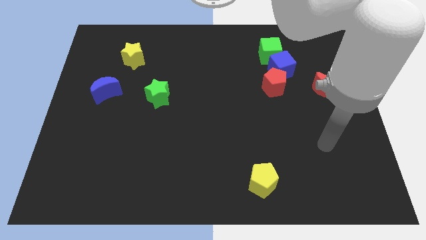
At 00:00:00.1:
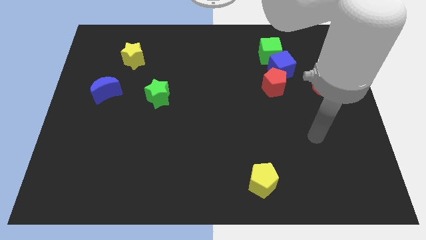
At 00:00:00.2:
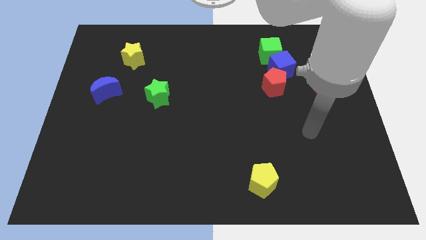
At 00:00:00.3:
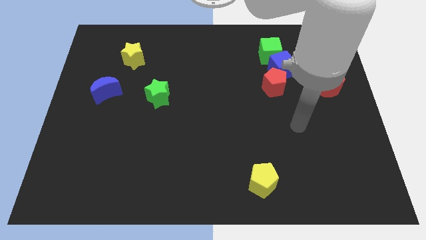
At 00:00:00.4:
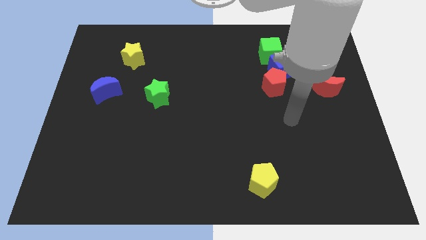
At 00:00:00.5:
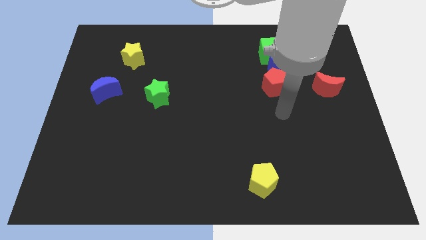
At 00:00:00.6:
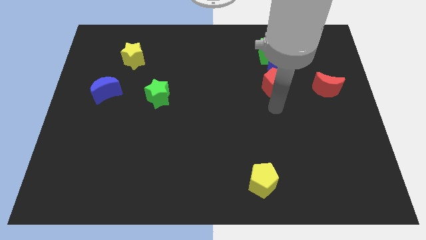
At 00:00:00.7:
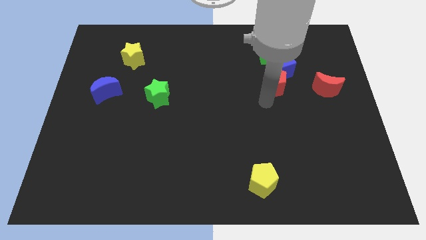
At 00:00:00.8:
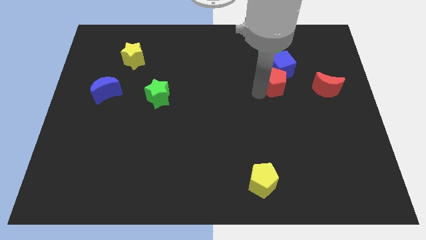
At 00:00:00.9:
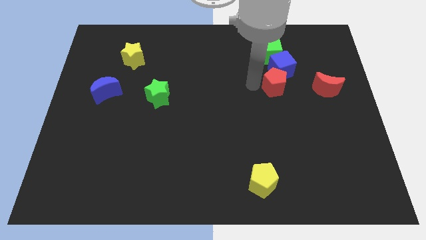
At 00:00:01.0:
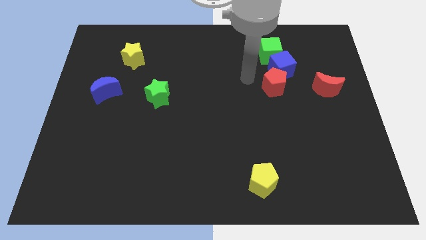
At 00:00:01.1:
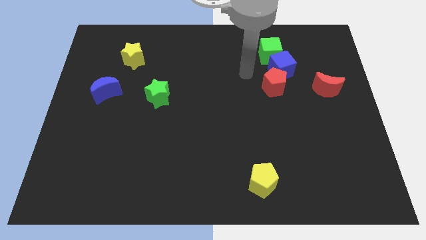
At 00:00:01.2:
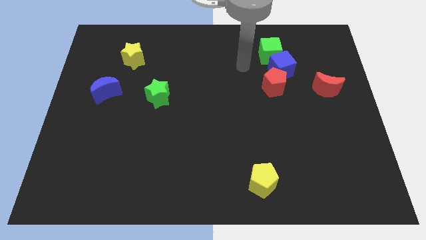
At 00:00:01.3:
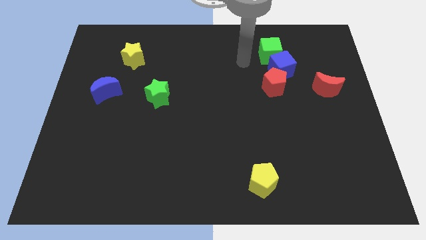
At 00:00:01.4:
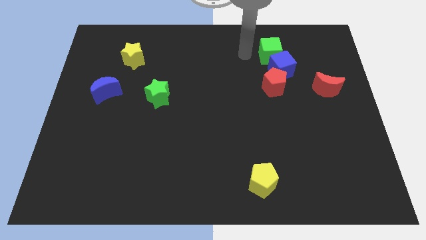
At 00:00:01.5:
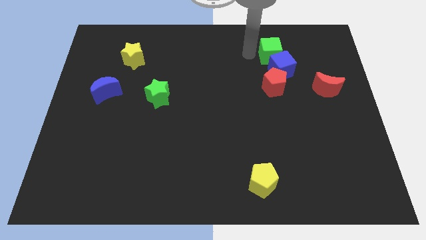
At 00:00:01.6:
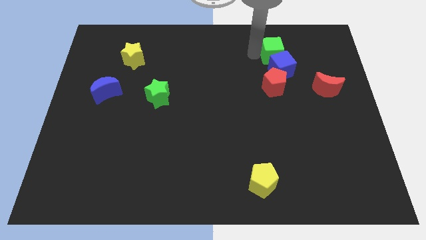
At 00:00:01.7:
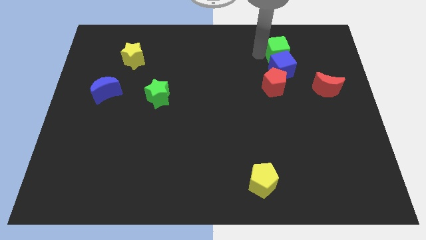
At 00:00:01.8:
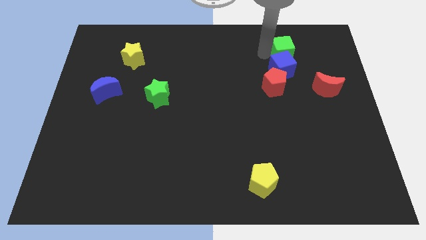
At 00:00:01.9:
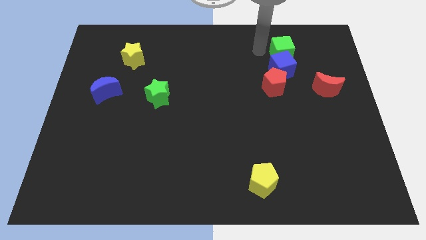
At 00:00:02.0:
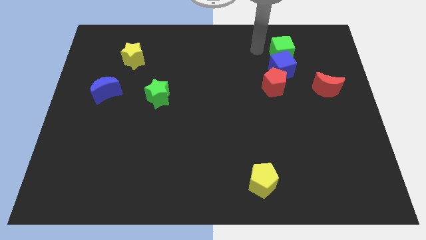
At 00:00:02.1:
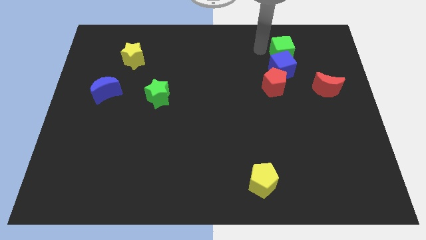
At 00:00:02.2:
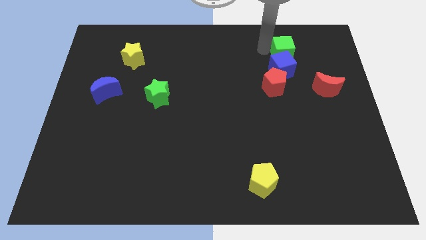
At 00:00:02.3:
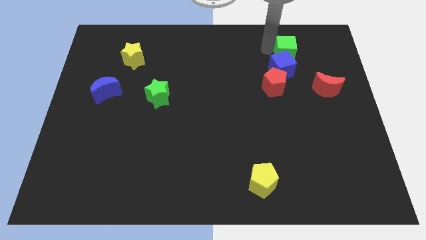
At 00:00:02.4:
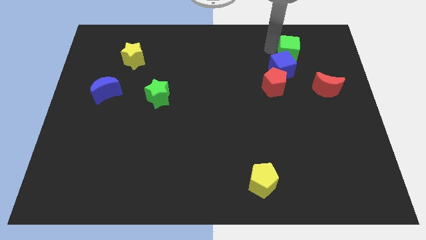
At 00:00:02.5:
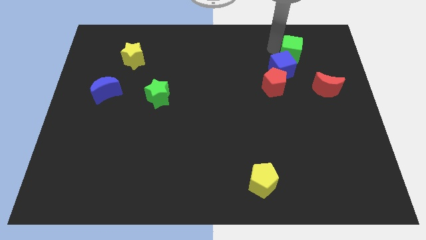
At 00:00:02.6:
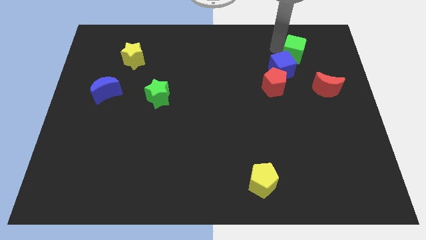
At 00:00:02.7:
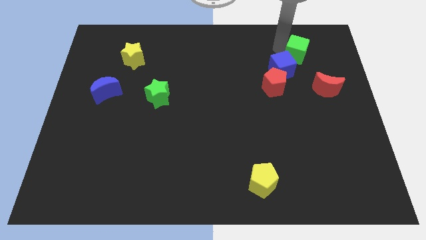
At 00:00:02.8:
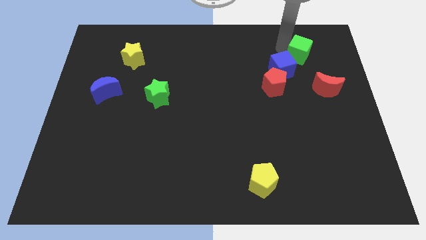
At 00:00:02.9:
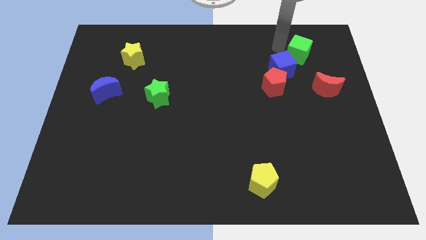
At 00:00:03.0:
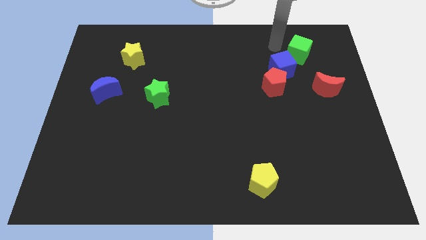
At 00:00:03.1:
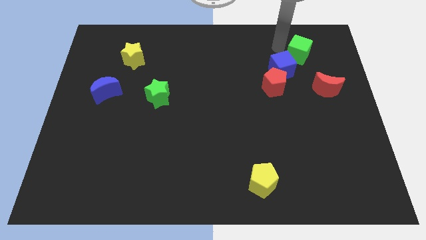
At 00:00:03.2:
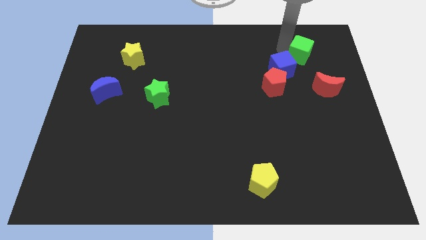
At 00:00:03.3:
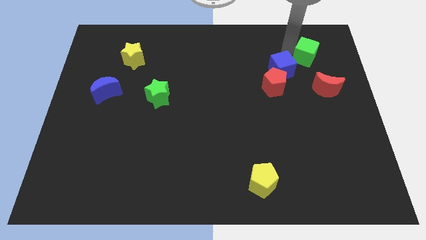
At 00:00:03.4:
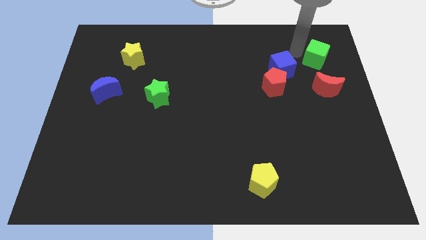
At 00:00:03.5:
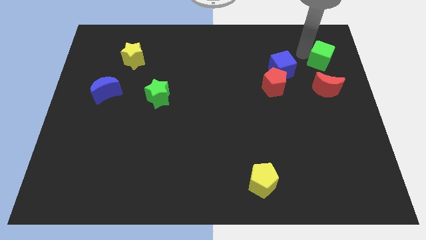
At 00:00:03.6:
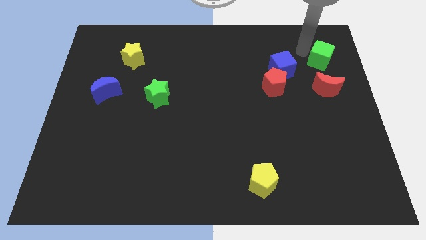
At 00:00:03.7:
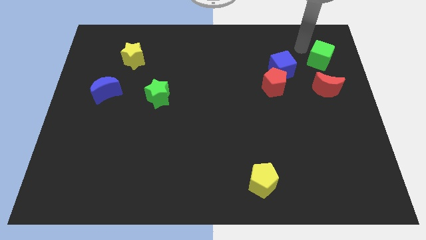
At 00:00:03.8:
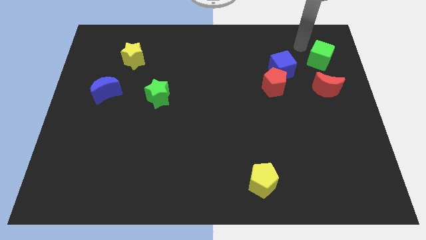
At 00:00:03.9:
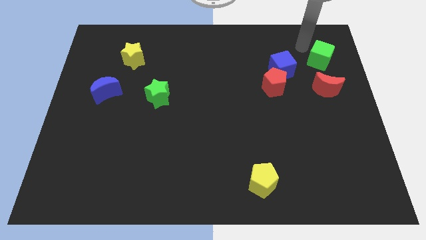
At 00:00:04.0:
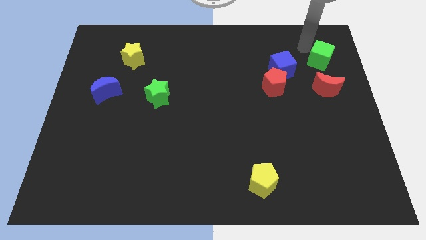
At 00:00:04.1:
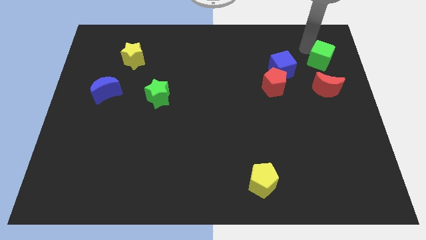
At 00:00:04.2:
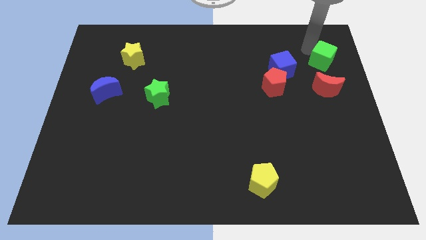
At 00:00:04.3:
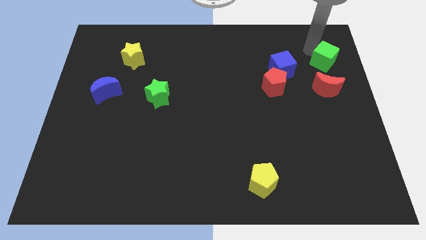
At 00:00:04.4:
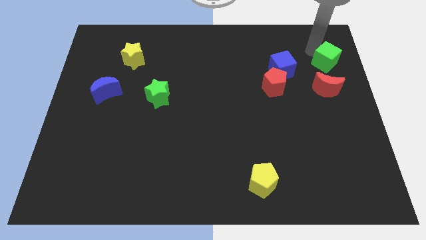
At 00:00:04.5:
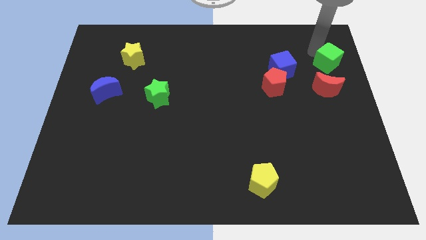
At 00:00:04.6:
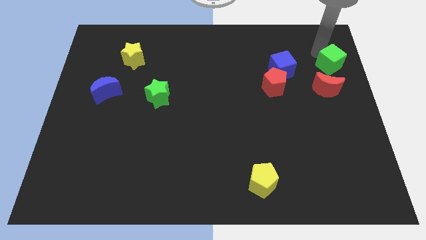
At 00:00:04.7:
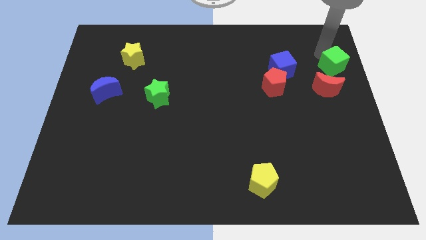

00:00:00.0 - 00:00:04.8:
push the green cube to the right side

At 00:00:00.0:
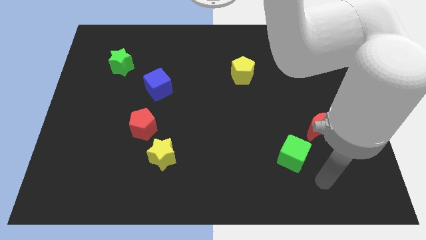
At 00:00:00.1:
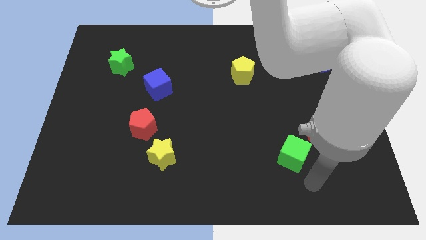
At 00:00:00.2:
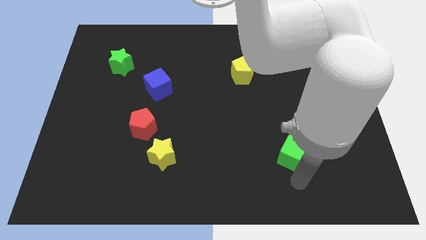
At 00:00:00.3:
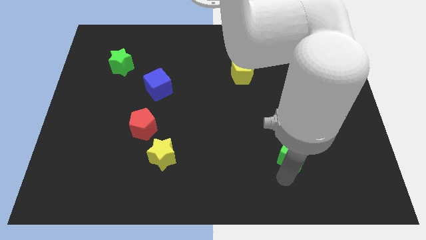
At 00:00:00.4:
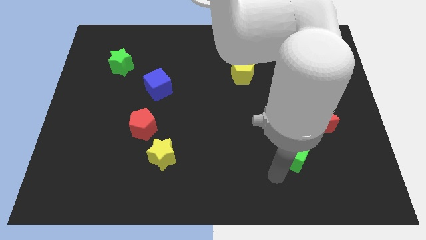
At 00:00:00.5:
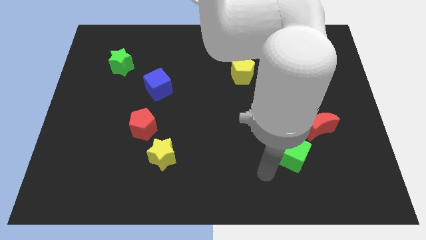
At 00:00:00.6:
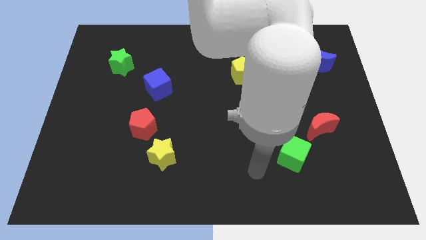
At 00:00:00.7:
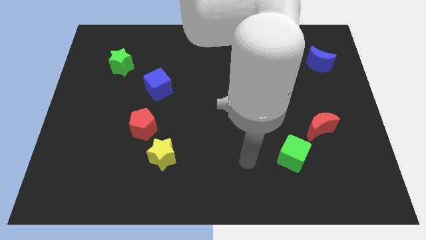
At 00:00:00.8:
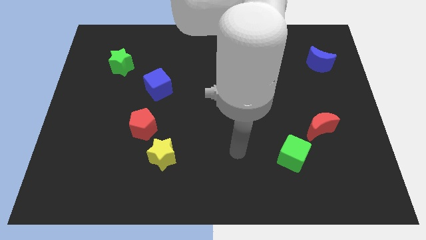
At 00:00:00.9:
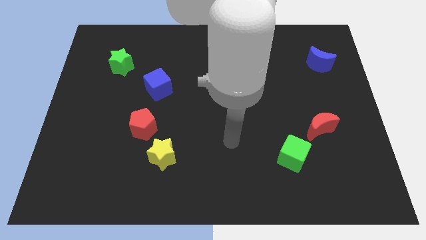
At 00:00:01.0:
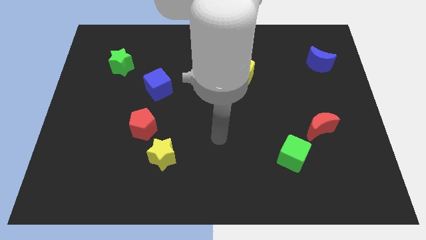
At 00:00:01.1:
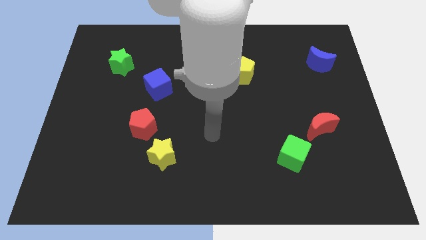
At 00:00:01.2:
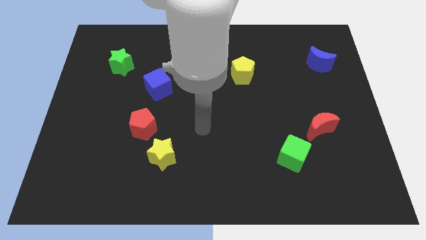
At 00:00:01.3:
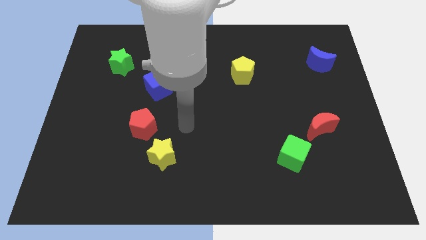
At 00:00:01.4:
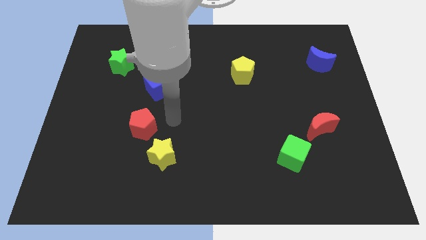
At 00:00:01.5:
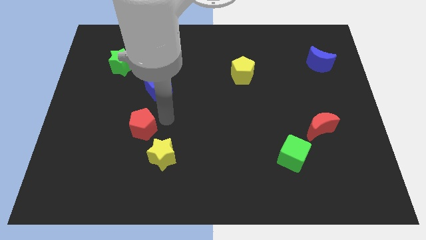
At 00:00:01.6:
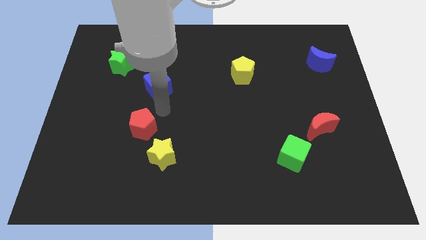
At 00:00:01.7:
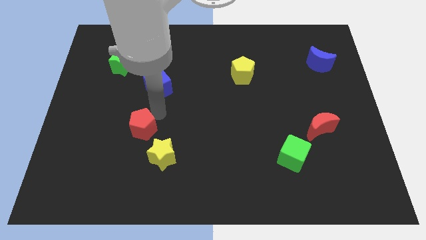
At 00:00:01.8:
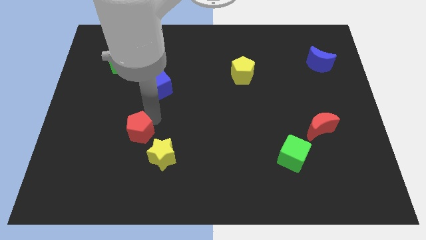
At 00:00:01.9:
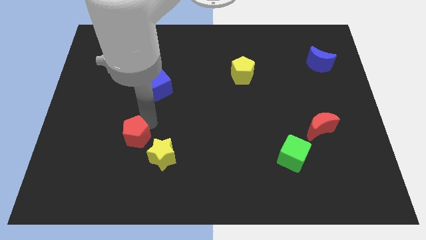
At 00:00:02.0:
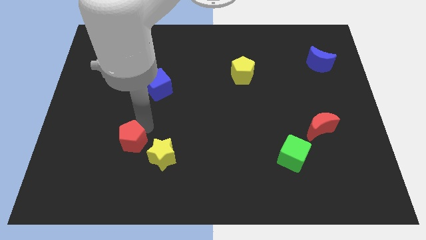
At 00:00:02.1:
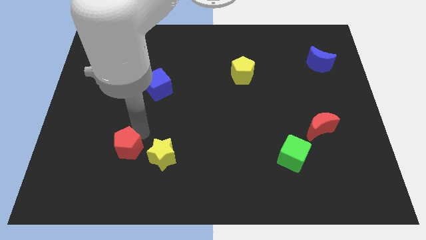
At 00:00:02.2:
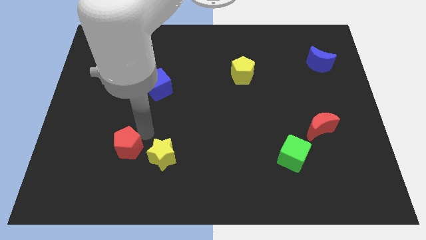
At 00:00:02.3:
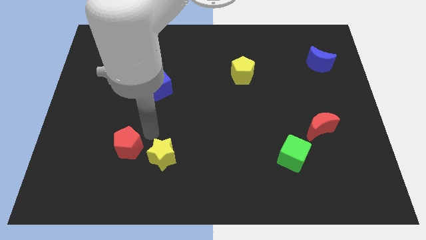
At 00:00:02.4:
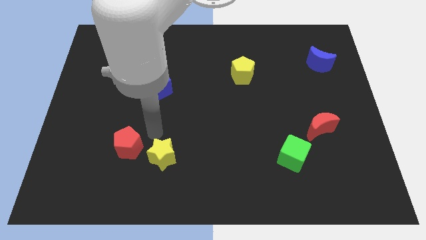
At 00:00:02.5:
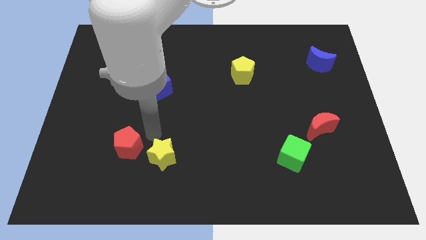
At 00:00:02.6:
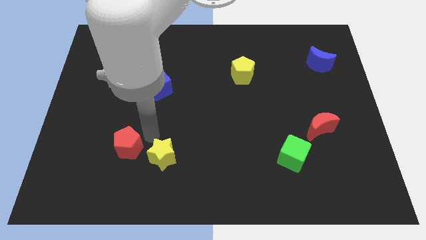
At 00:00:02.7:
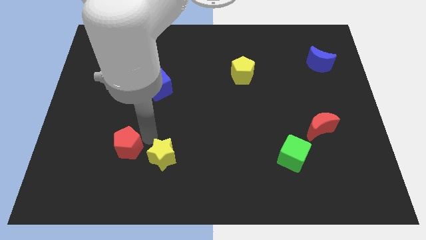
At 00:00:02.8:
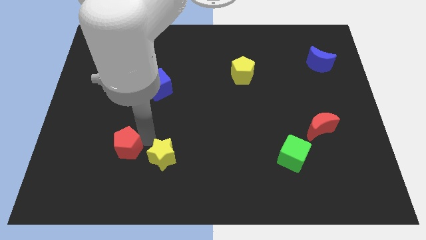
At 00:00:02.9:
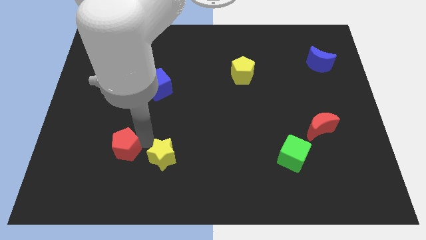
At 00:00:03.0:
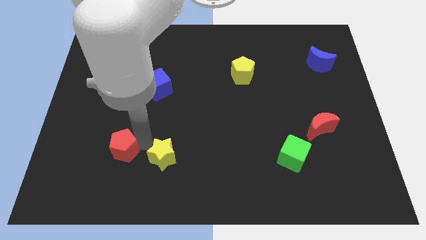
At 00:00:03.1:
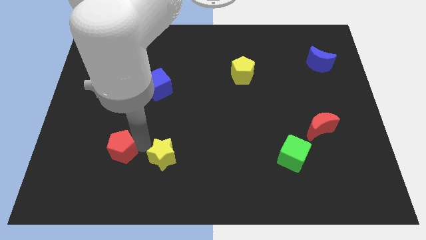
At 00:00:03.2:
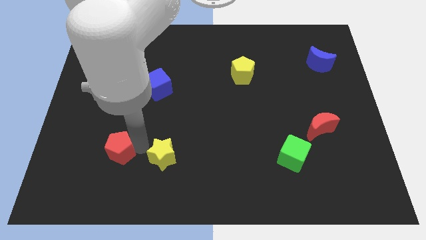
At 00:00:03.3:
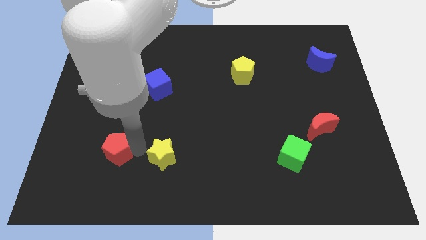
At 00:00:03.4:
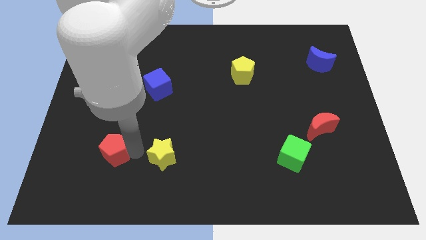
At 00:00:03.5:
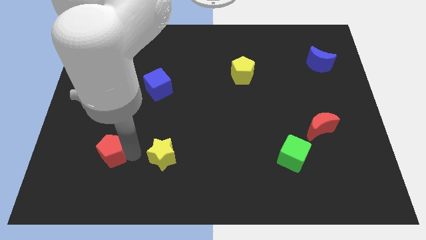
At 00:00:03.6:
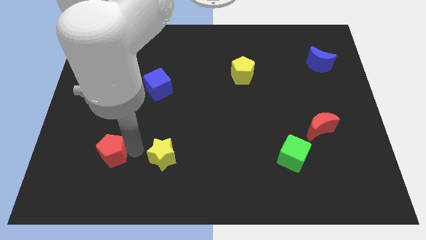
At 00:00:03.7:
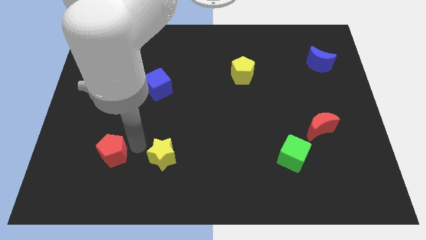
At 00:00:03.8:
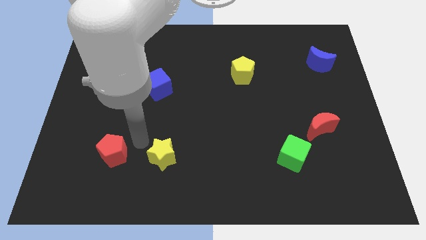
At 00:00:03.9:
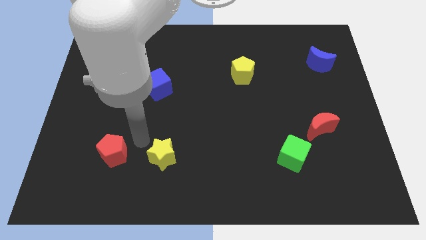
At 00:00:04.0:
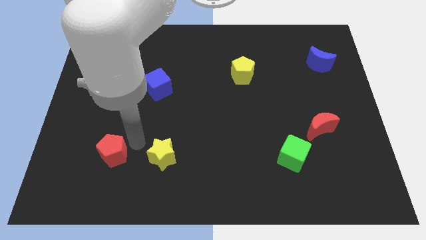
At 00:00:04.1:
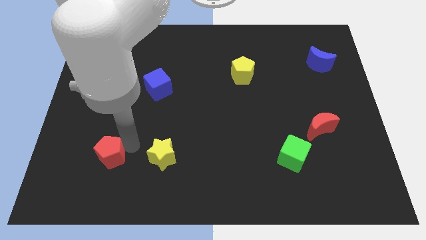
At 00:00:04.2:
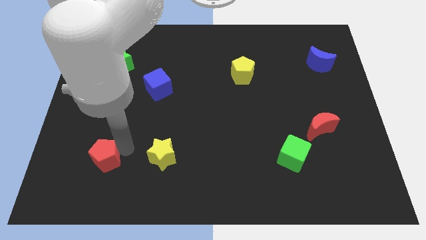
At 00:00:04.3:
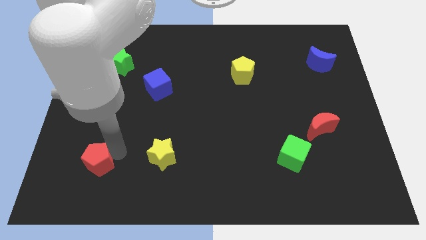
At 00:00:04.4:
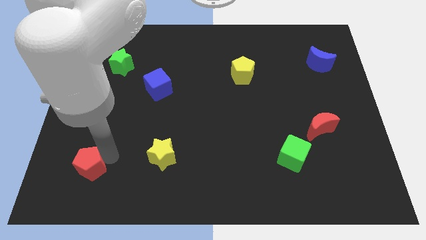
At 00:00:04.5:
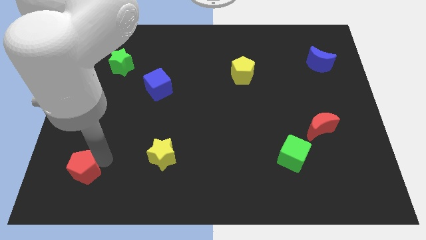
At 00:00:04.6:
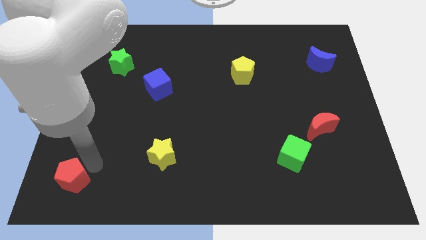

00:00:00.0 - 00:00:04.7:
slide the red pentagon to the lower left corner
